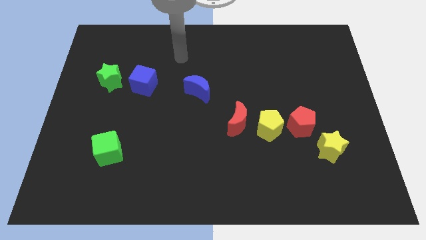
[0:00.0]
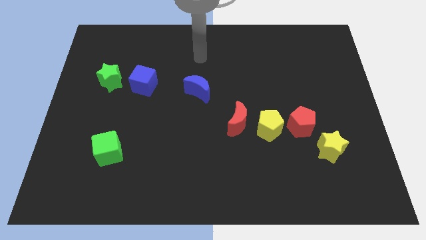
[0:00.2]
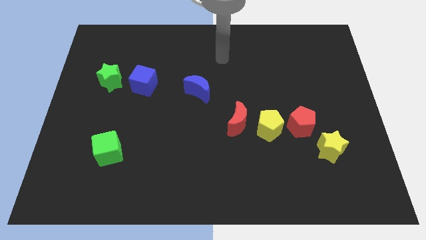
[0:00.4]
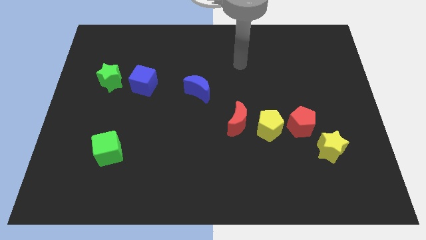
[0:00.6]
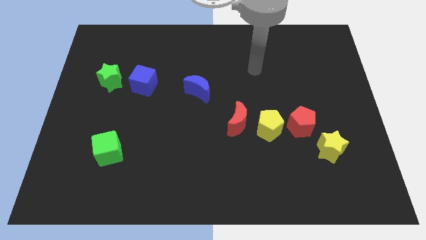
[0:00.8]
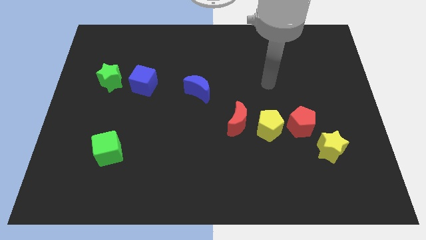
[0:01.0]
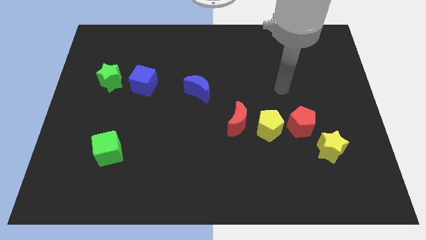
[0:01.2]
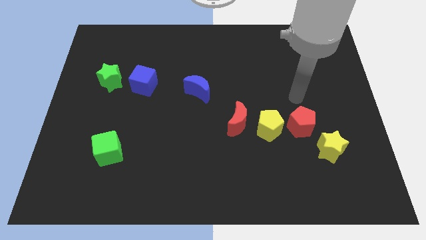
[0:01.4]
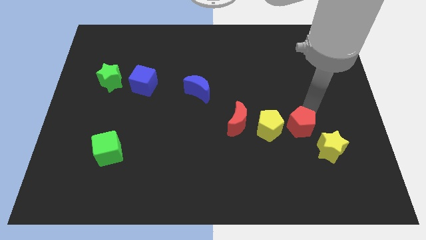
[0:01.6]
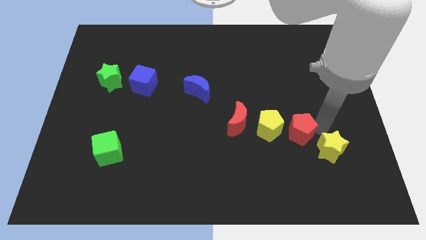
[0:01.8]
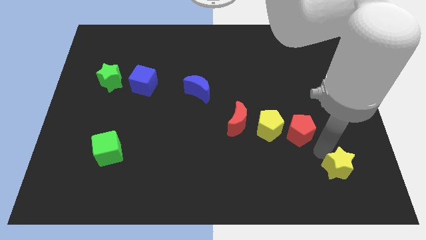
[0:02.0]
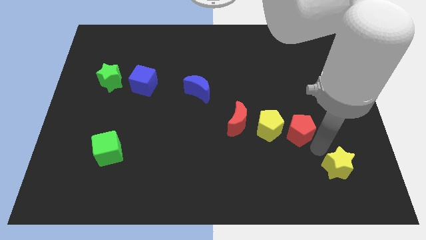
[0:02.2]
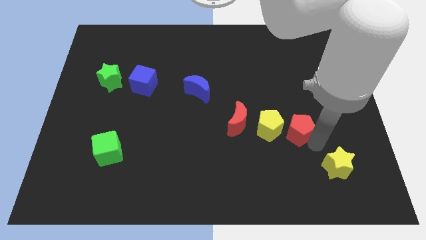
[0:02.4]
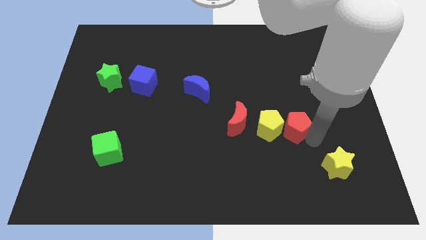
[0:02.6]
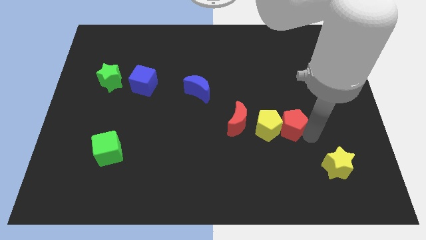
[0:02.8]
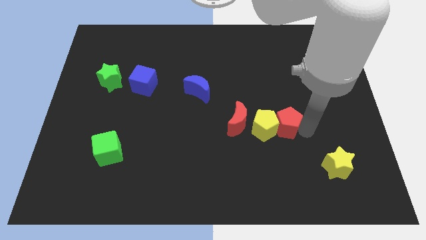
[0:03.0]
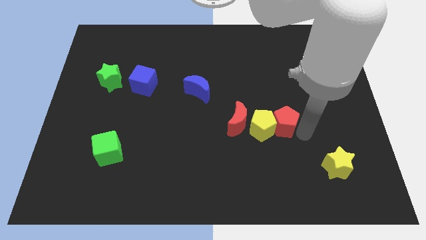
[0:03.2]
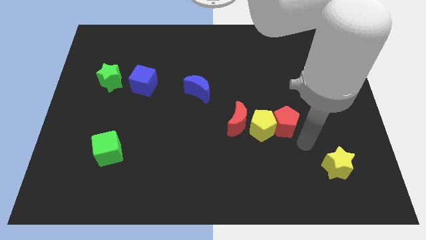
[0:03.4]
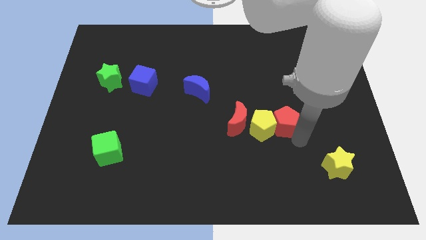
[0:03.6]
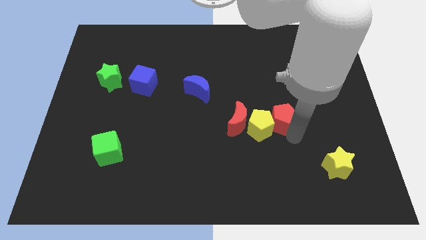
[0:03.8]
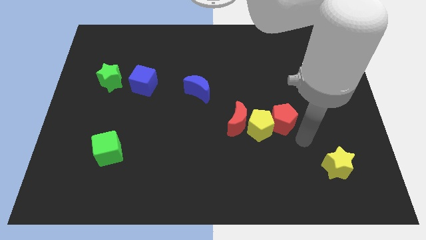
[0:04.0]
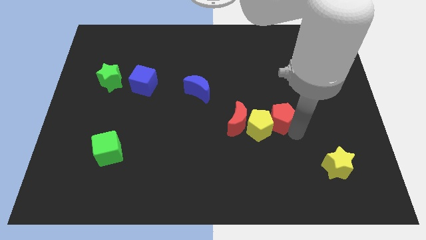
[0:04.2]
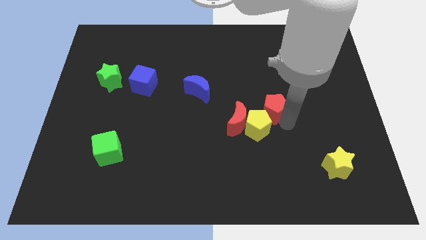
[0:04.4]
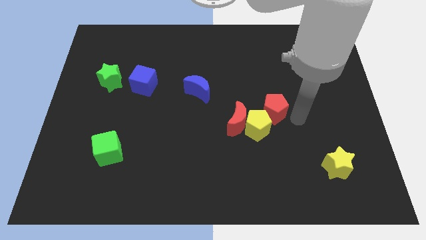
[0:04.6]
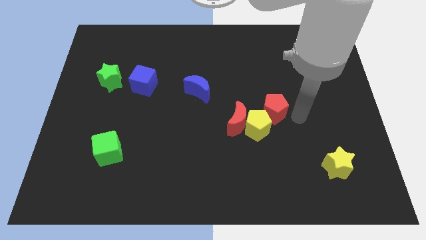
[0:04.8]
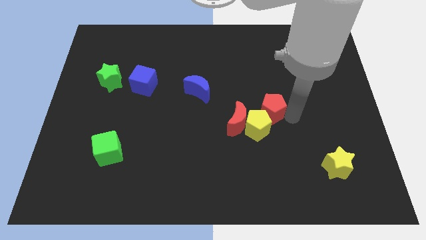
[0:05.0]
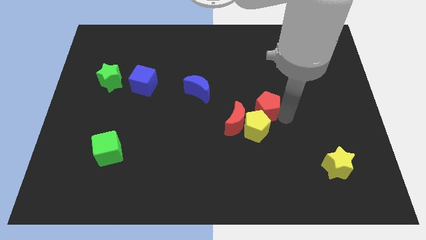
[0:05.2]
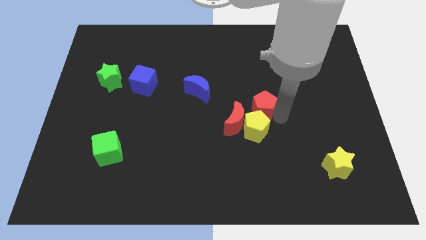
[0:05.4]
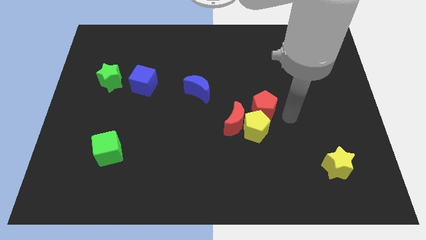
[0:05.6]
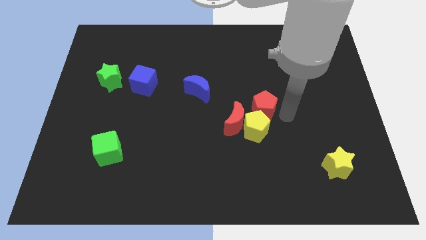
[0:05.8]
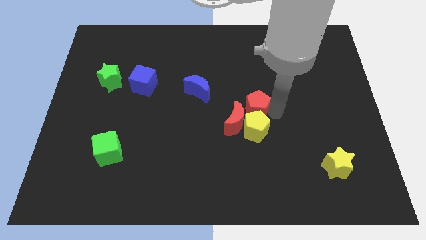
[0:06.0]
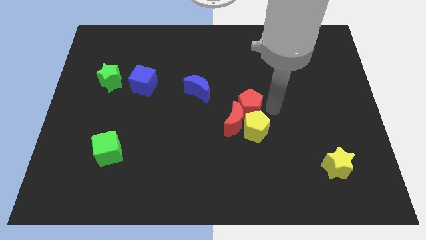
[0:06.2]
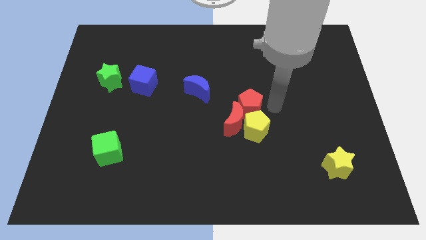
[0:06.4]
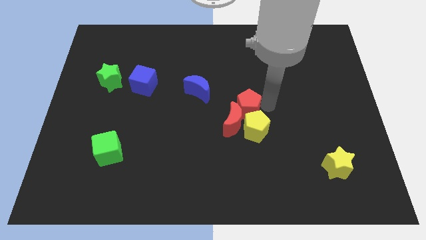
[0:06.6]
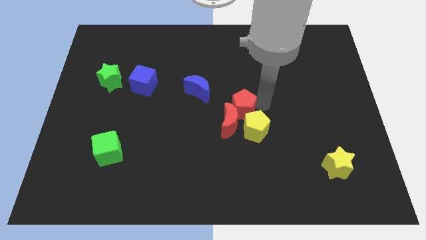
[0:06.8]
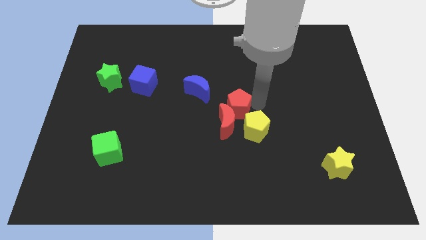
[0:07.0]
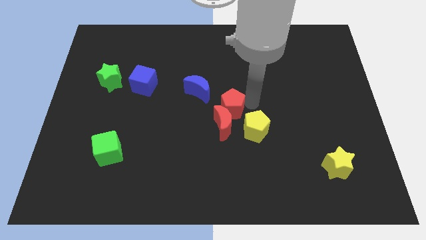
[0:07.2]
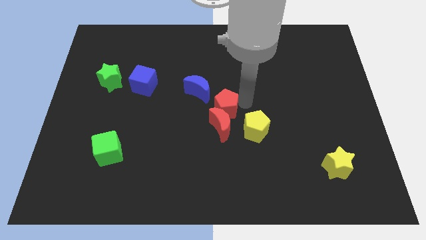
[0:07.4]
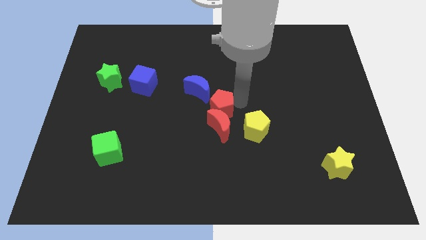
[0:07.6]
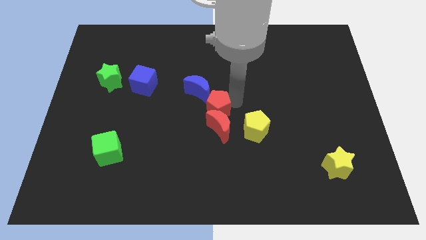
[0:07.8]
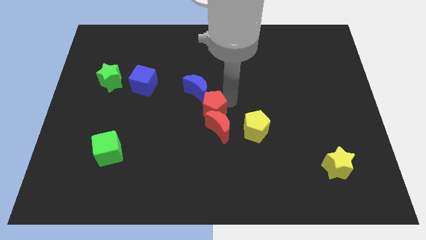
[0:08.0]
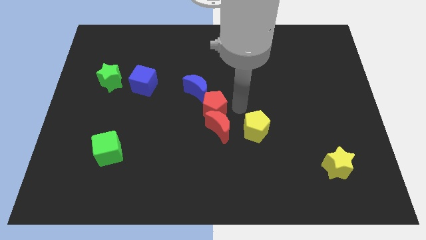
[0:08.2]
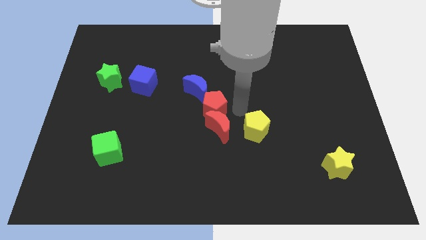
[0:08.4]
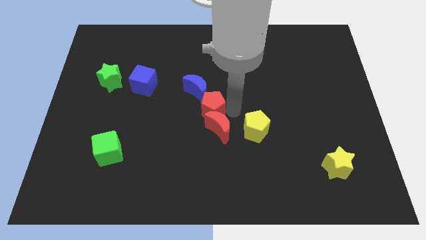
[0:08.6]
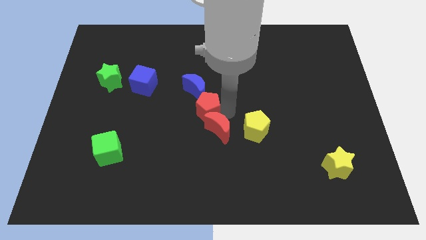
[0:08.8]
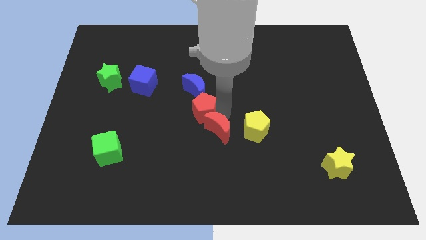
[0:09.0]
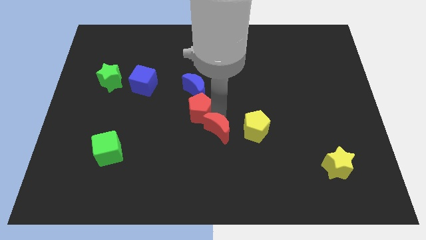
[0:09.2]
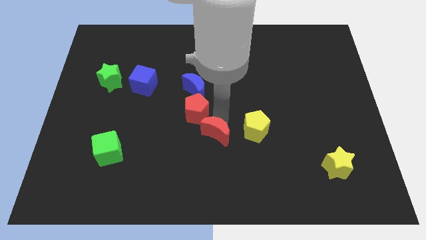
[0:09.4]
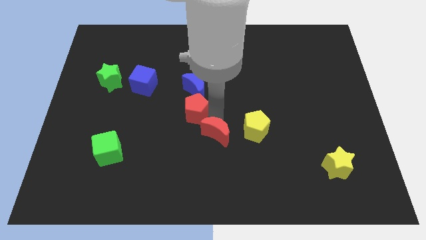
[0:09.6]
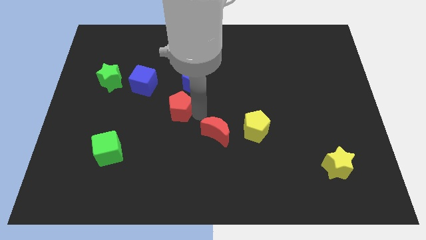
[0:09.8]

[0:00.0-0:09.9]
slide the red pentagon diagonally down and to the right of the blue cube

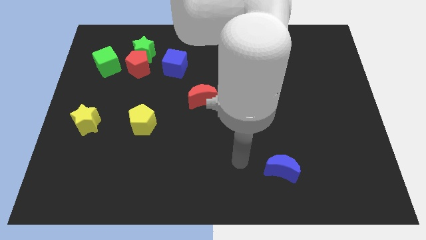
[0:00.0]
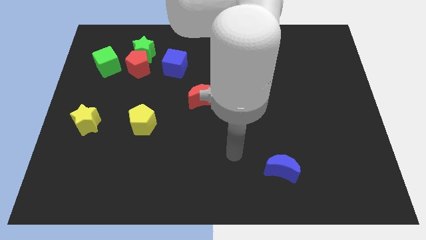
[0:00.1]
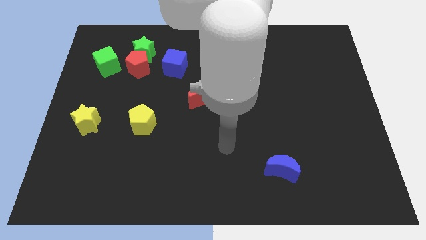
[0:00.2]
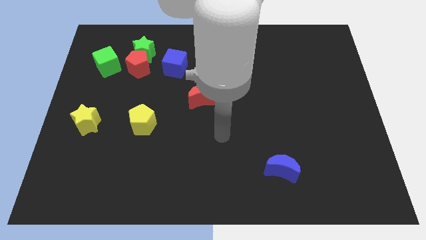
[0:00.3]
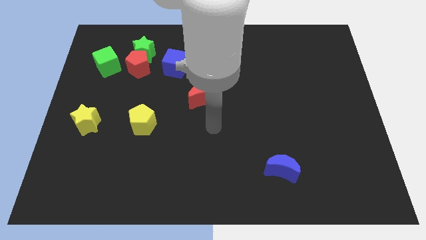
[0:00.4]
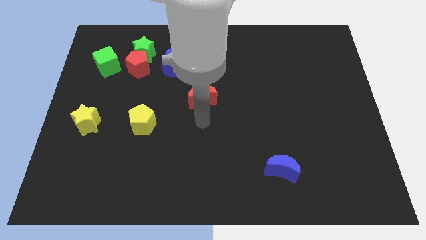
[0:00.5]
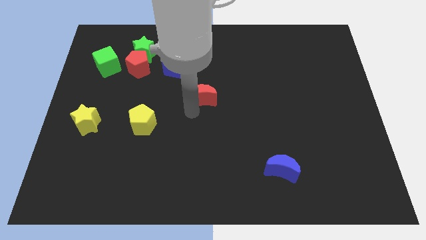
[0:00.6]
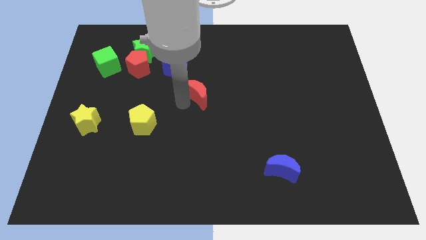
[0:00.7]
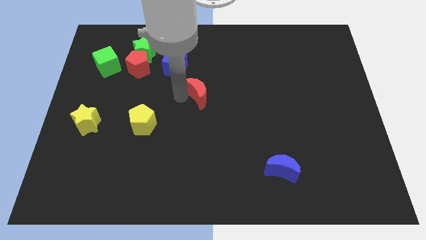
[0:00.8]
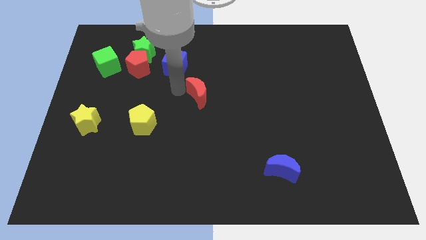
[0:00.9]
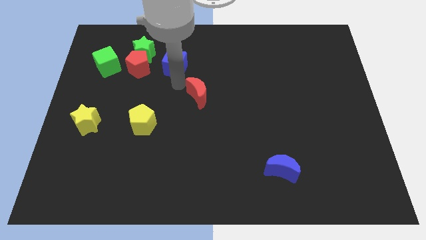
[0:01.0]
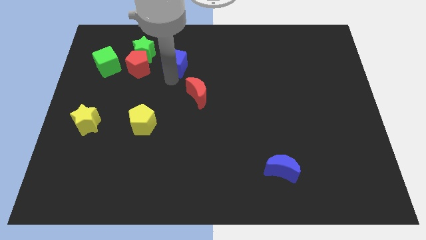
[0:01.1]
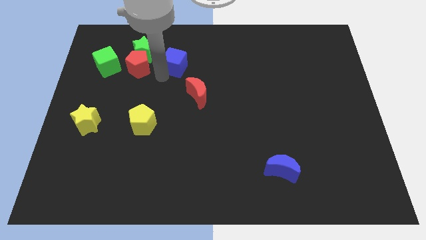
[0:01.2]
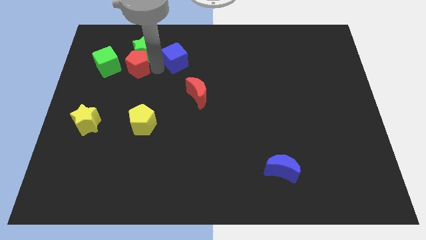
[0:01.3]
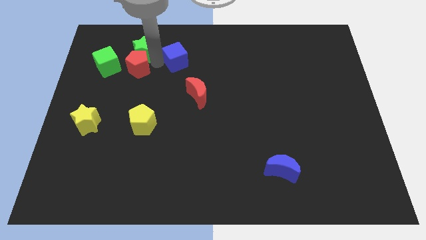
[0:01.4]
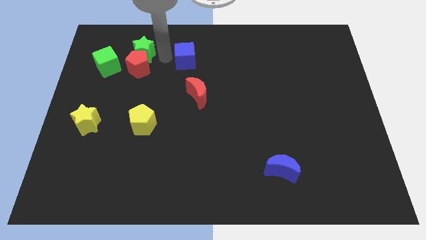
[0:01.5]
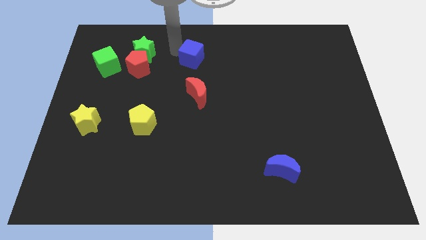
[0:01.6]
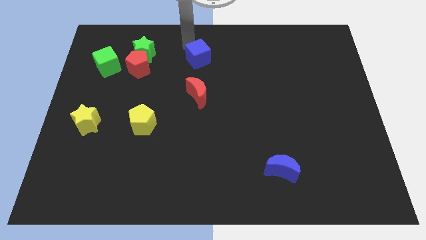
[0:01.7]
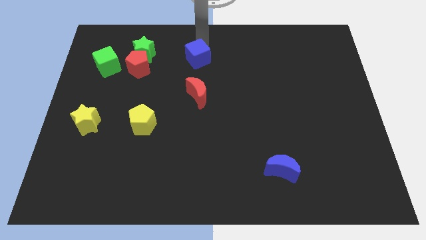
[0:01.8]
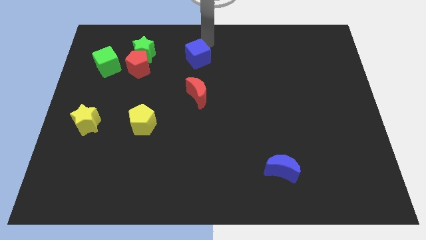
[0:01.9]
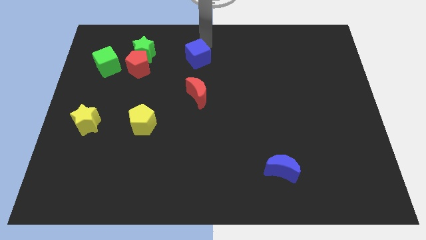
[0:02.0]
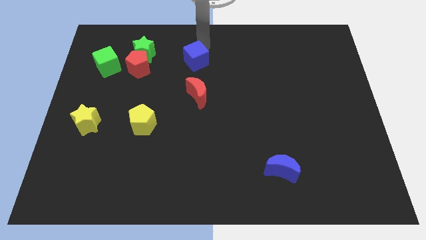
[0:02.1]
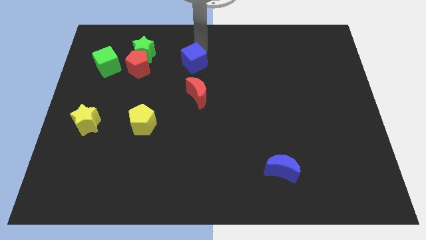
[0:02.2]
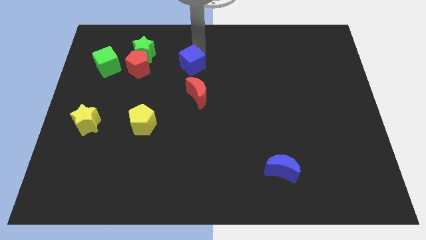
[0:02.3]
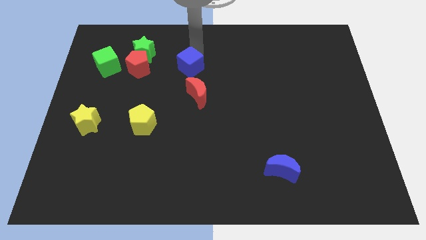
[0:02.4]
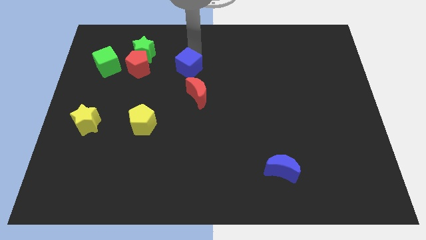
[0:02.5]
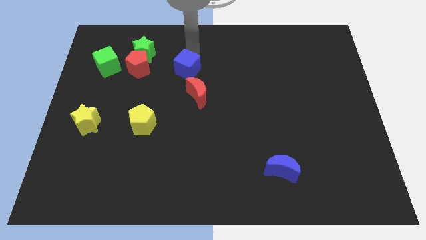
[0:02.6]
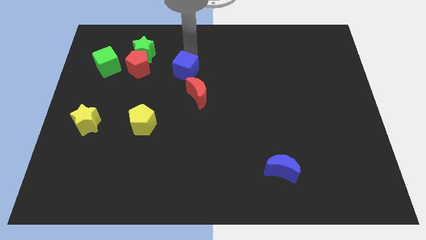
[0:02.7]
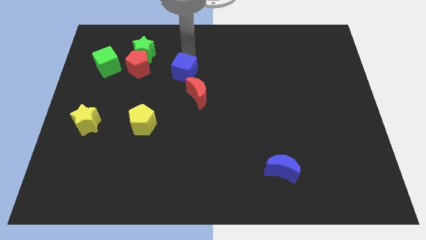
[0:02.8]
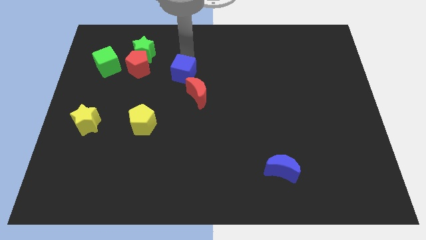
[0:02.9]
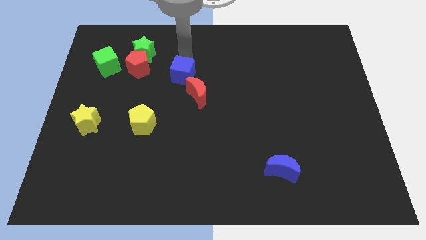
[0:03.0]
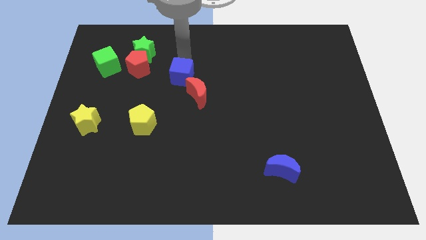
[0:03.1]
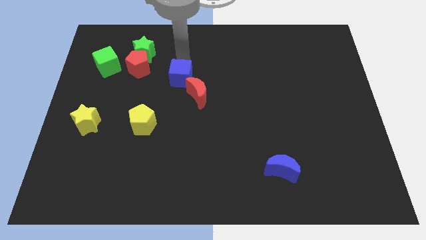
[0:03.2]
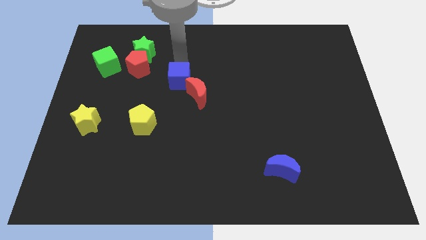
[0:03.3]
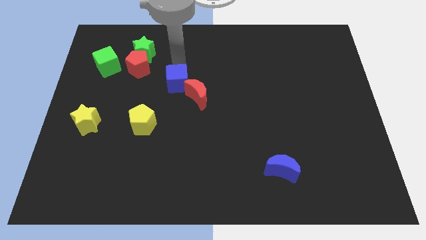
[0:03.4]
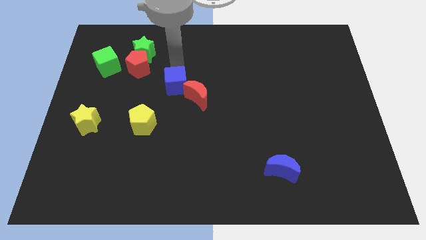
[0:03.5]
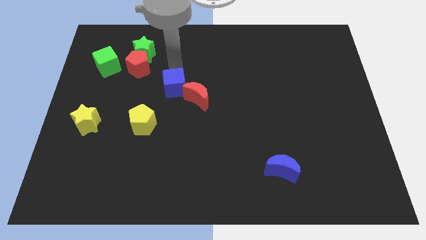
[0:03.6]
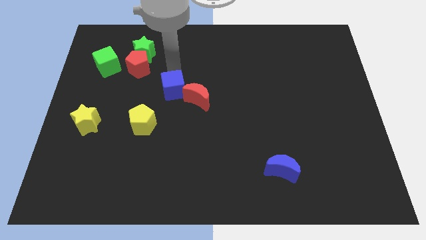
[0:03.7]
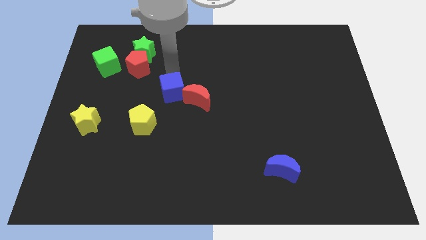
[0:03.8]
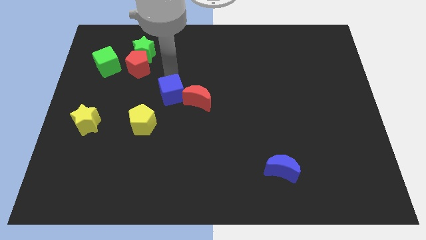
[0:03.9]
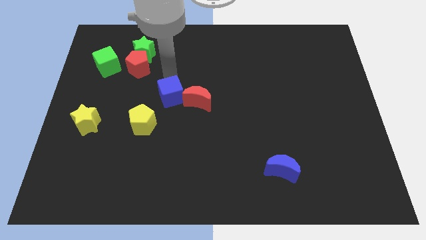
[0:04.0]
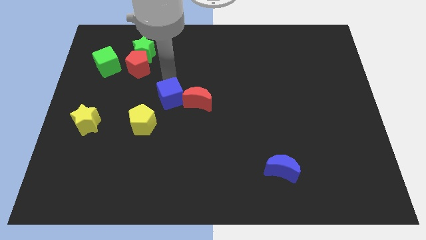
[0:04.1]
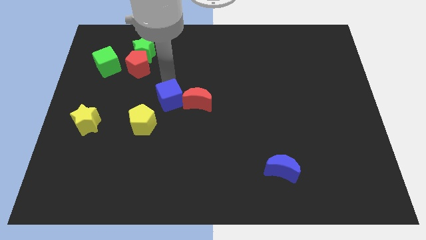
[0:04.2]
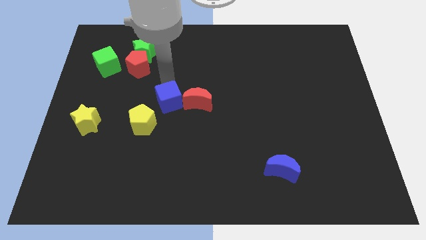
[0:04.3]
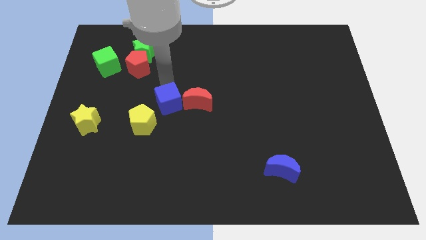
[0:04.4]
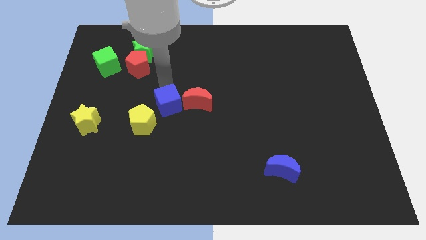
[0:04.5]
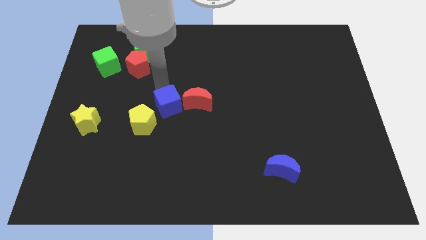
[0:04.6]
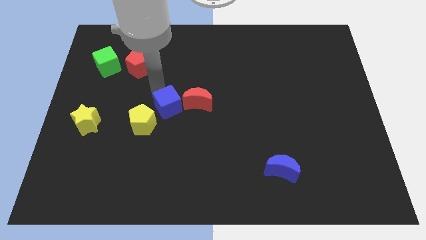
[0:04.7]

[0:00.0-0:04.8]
move the blue cube to the right of the yellow pentagon
